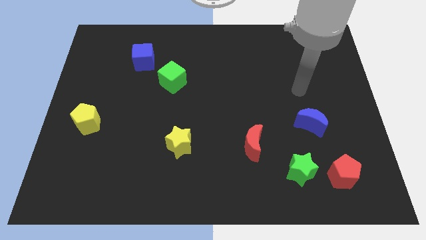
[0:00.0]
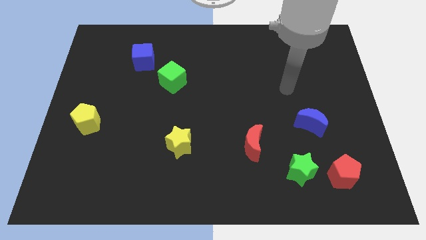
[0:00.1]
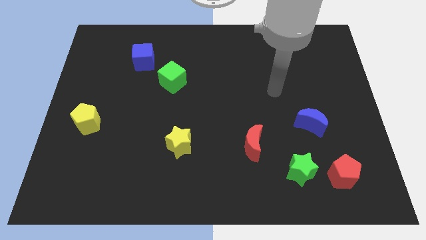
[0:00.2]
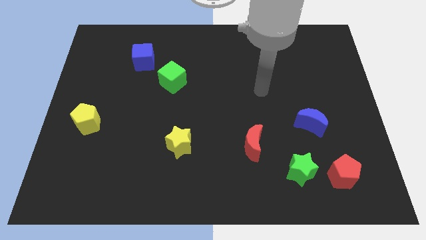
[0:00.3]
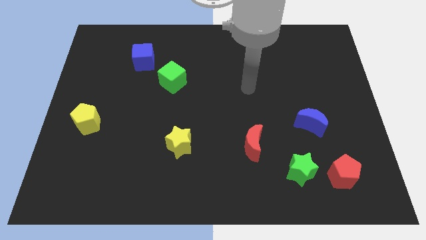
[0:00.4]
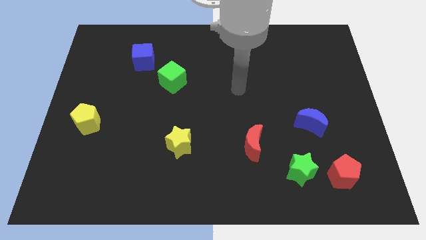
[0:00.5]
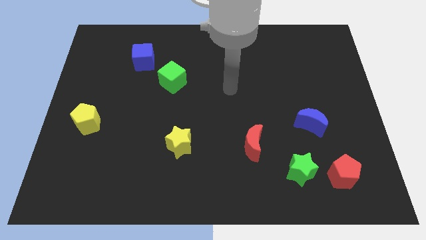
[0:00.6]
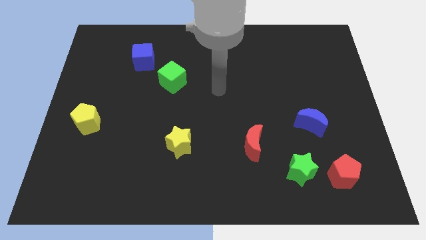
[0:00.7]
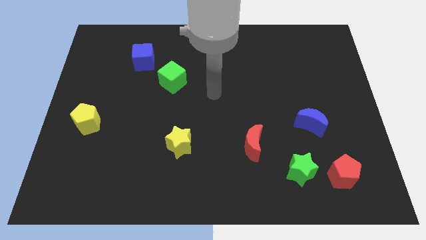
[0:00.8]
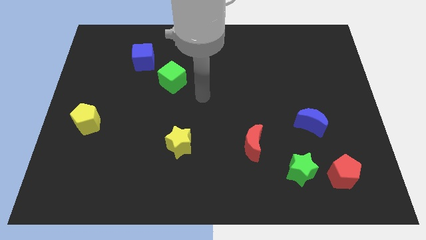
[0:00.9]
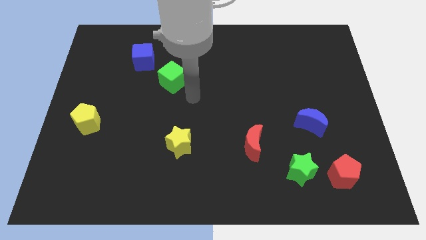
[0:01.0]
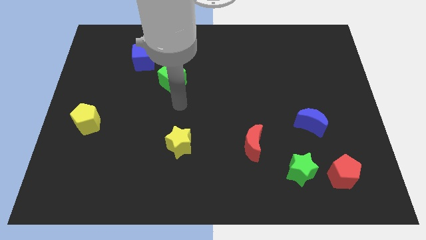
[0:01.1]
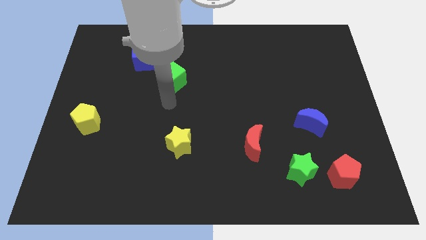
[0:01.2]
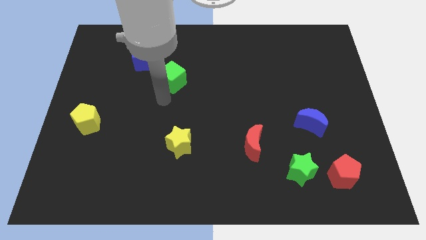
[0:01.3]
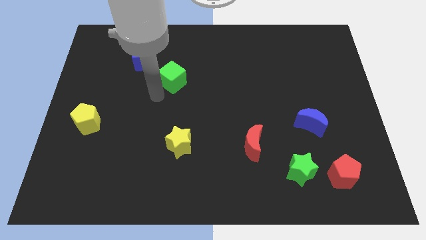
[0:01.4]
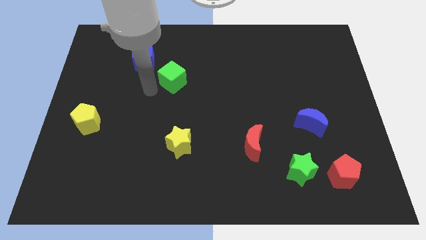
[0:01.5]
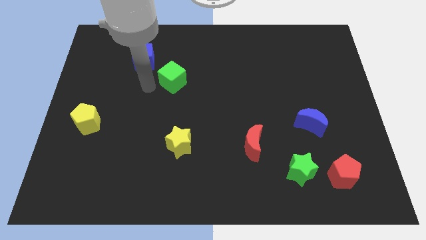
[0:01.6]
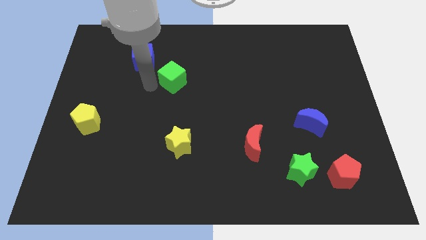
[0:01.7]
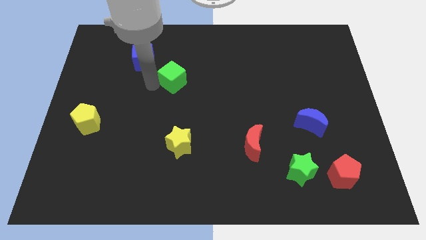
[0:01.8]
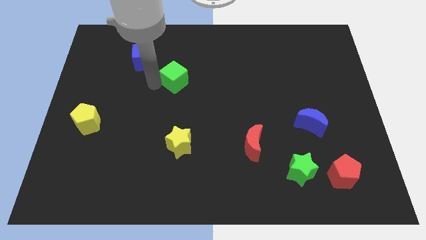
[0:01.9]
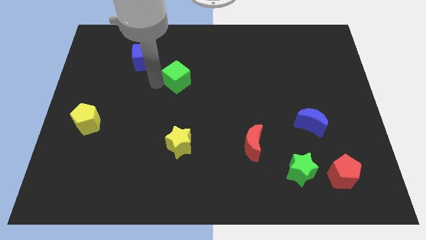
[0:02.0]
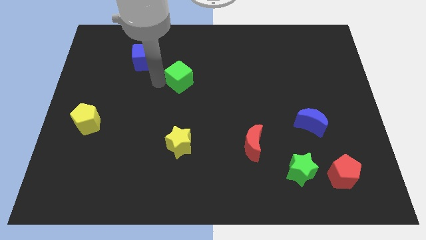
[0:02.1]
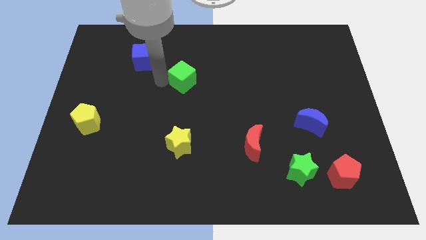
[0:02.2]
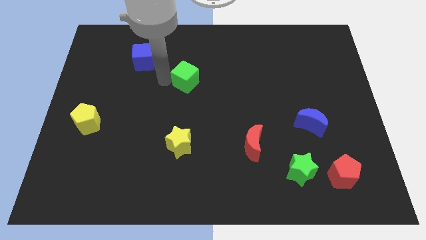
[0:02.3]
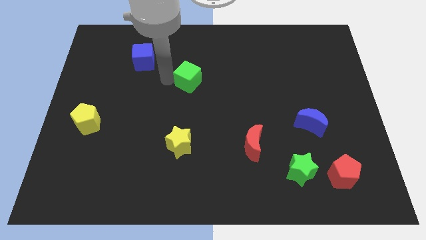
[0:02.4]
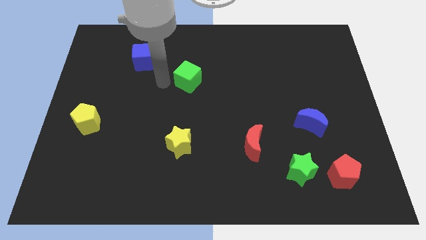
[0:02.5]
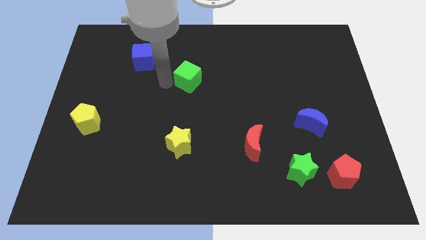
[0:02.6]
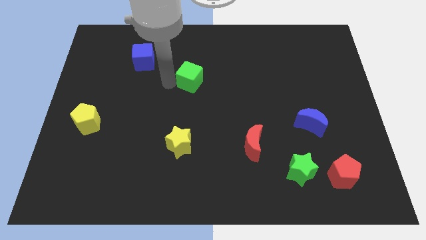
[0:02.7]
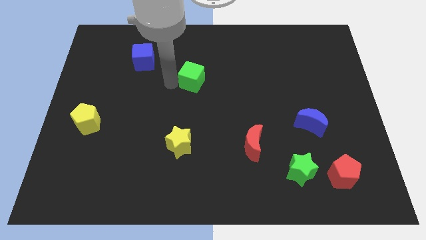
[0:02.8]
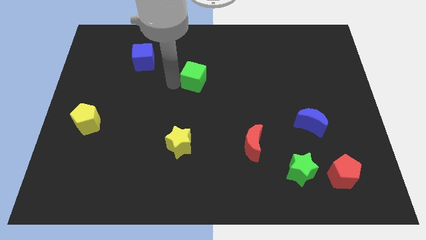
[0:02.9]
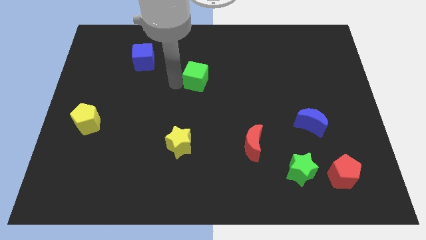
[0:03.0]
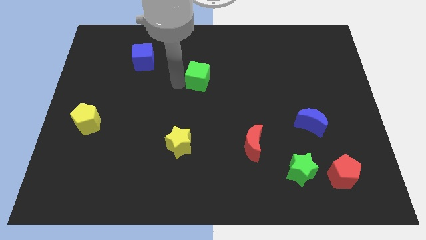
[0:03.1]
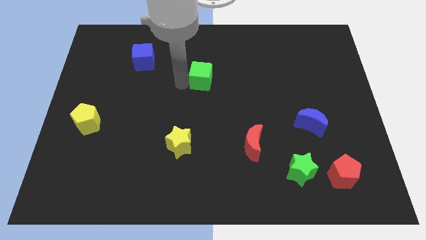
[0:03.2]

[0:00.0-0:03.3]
slightly slide the green cube right

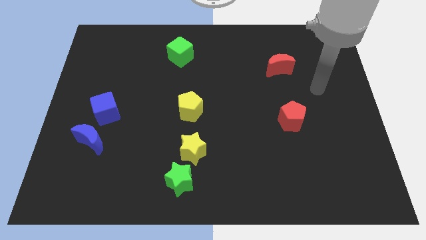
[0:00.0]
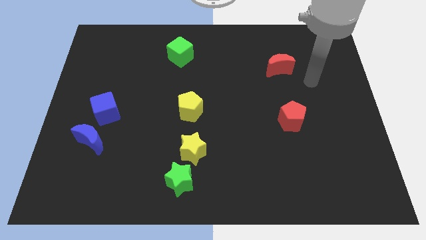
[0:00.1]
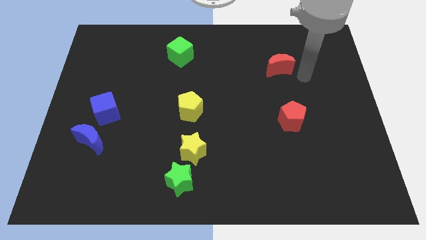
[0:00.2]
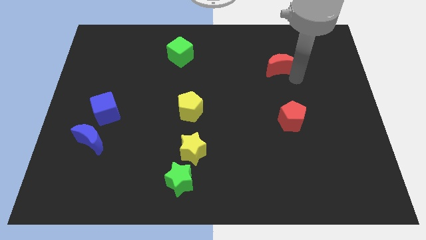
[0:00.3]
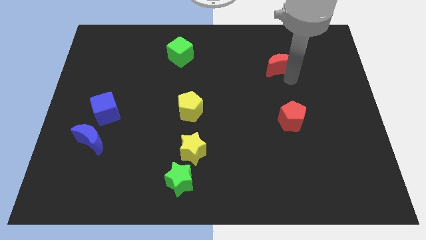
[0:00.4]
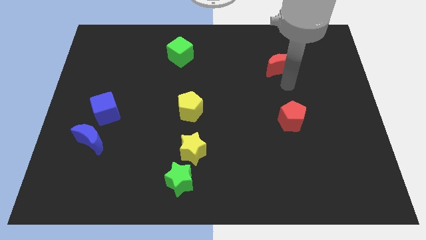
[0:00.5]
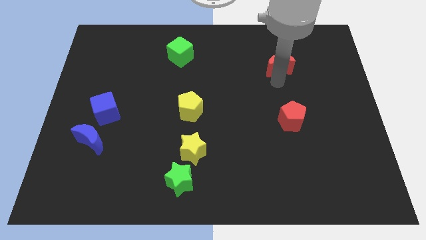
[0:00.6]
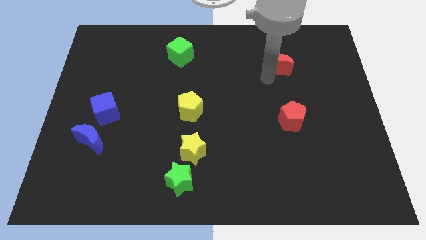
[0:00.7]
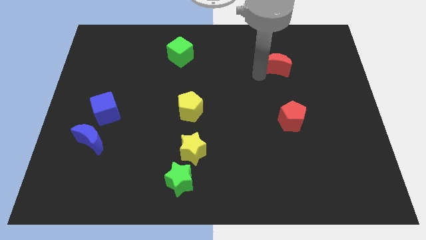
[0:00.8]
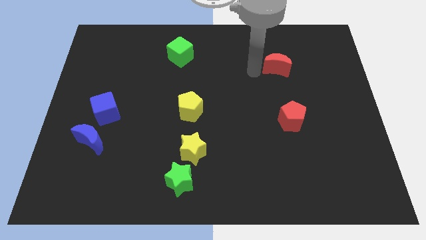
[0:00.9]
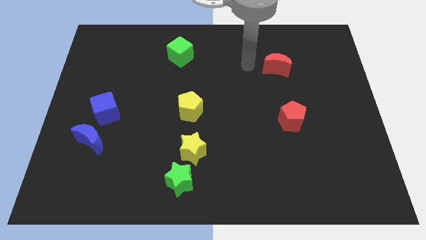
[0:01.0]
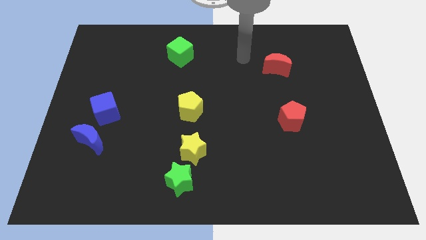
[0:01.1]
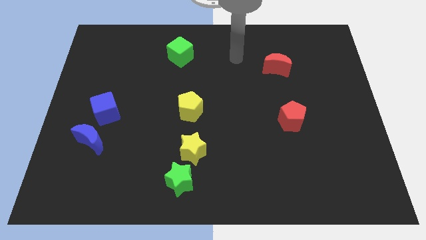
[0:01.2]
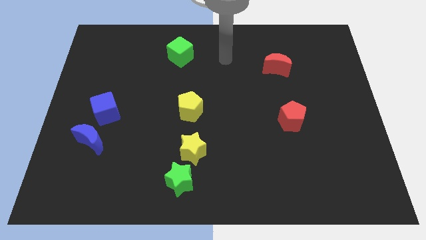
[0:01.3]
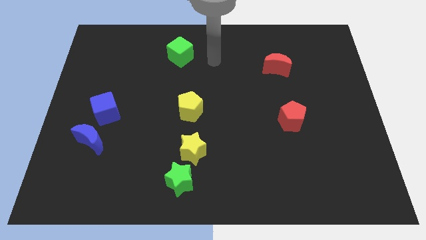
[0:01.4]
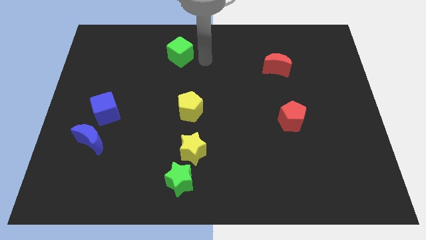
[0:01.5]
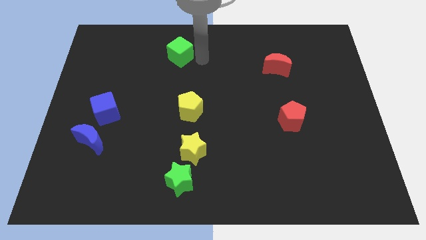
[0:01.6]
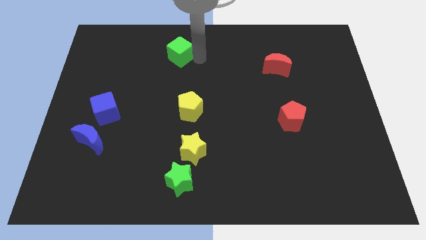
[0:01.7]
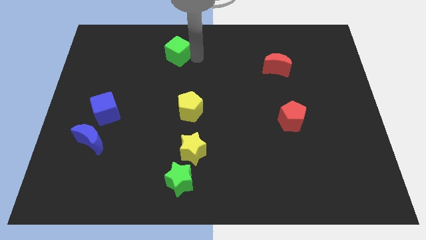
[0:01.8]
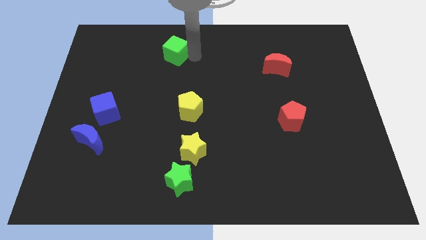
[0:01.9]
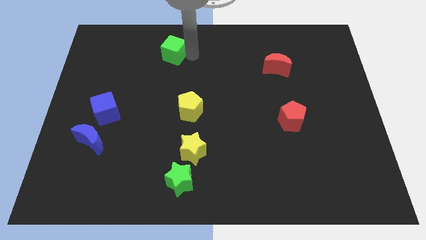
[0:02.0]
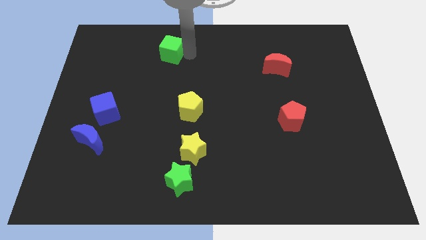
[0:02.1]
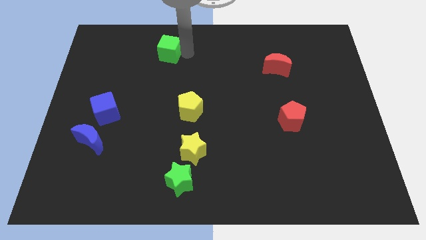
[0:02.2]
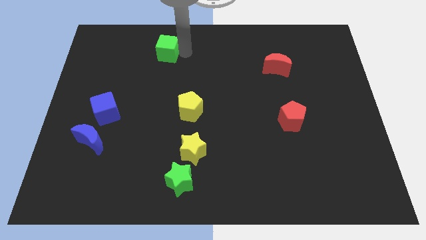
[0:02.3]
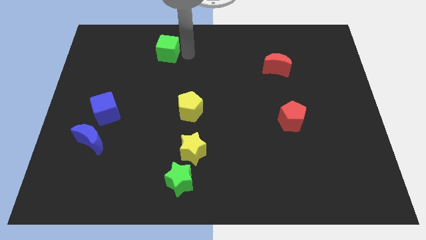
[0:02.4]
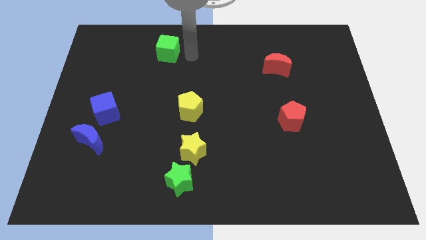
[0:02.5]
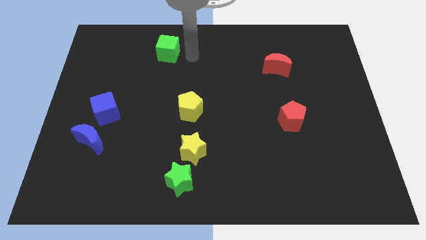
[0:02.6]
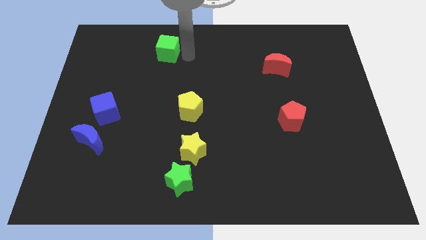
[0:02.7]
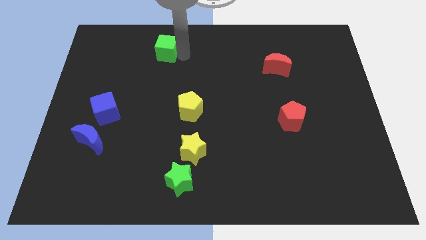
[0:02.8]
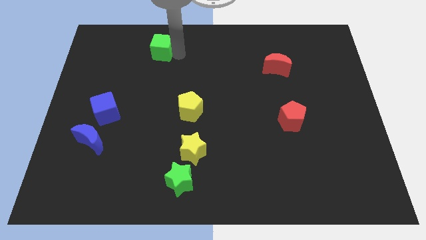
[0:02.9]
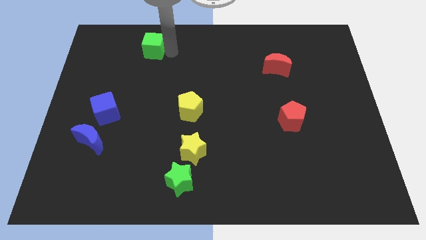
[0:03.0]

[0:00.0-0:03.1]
move the green cube a bit to the left

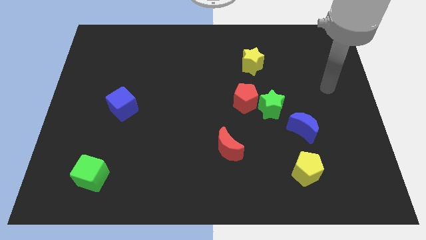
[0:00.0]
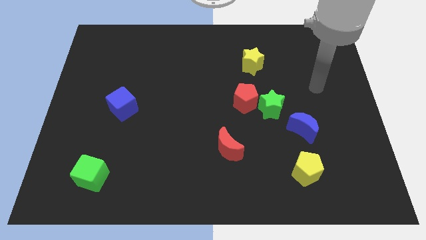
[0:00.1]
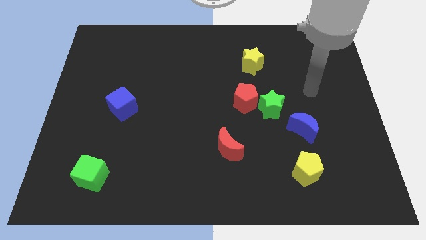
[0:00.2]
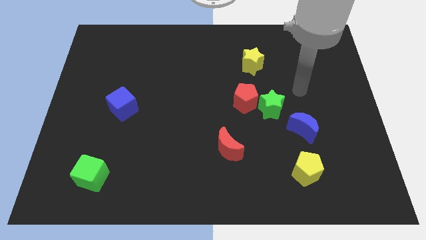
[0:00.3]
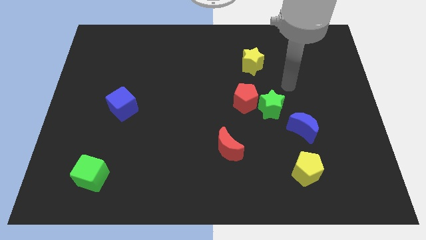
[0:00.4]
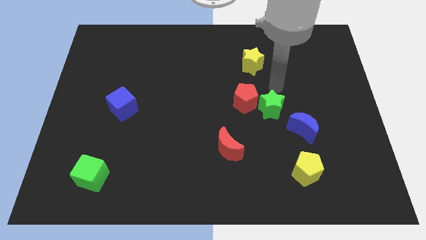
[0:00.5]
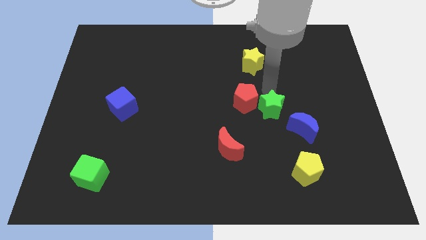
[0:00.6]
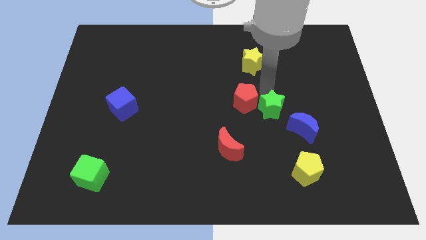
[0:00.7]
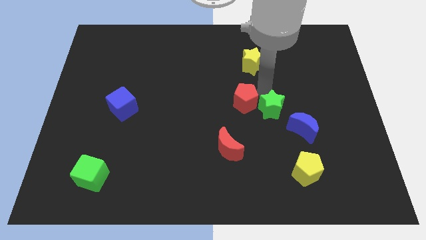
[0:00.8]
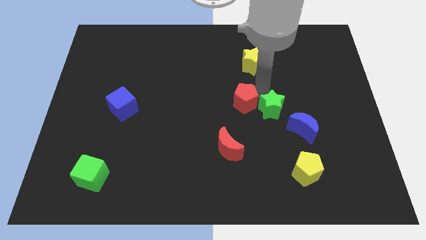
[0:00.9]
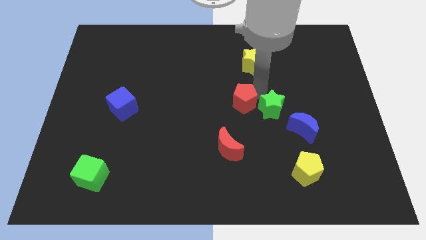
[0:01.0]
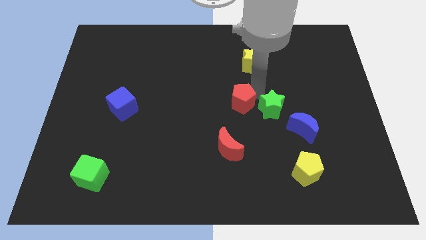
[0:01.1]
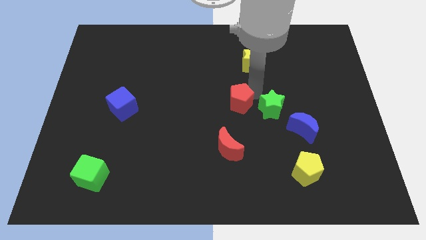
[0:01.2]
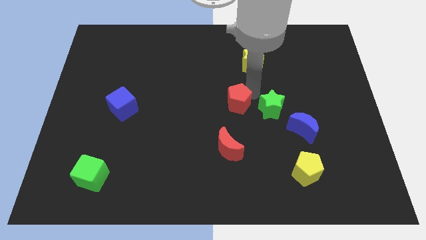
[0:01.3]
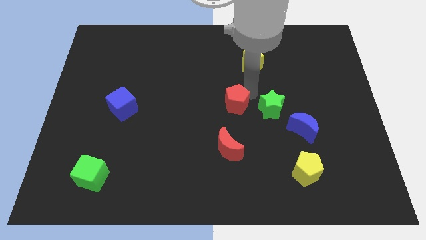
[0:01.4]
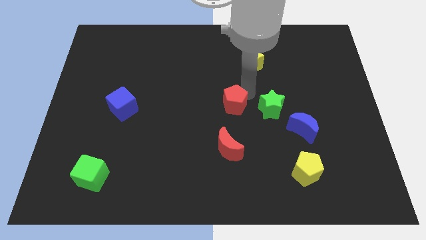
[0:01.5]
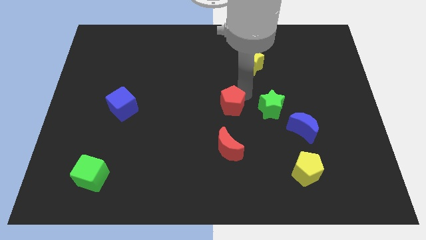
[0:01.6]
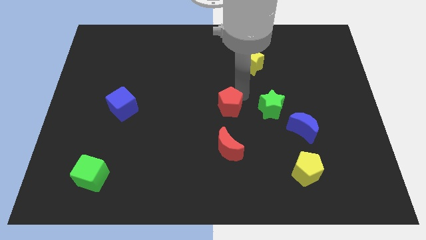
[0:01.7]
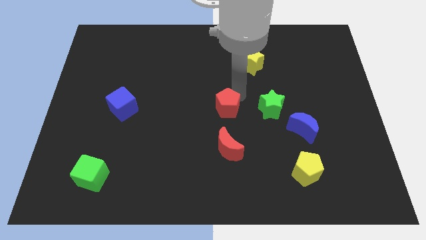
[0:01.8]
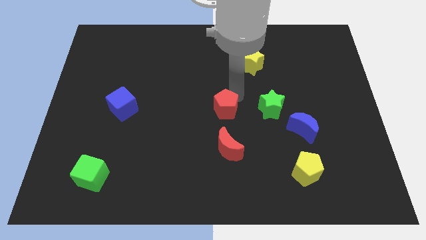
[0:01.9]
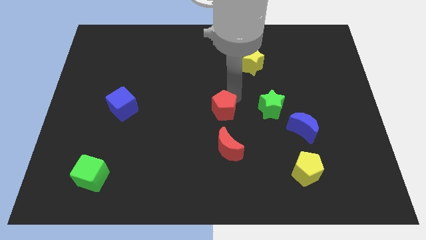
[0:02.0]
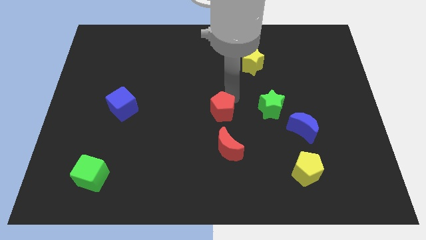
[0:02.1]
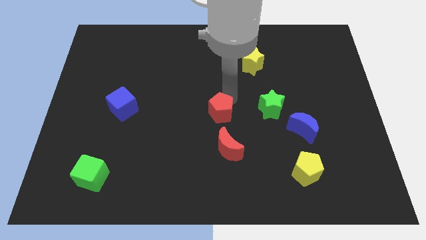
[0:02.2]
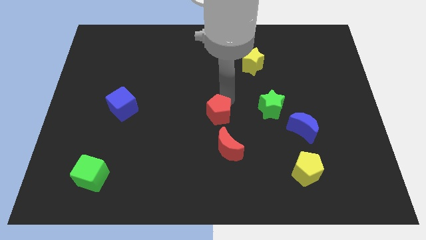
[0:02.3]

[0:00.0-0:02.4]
slide the red pentagon diagonally downwards and to the left a little bit
